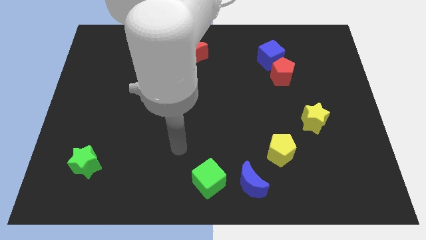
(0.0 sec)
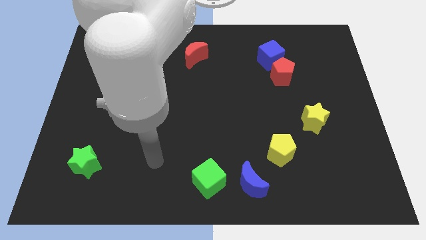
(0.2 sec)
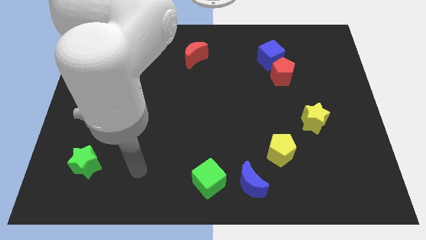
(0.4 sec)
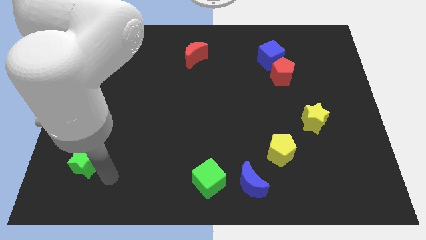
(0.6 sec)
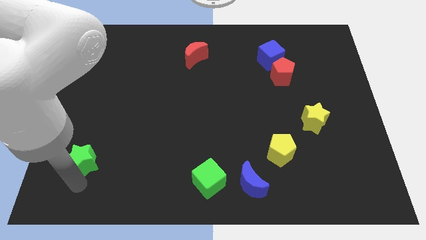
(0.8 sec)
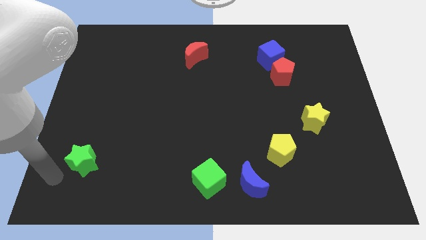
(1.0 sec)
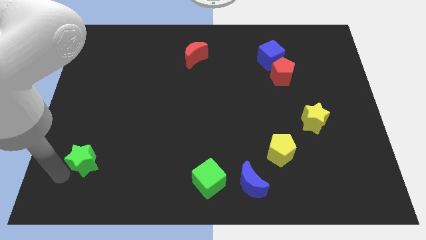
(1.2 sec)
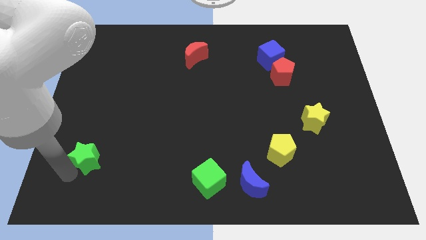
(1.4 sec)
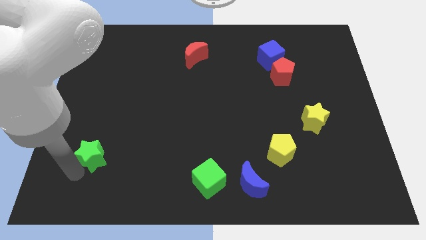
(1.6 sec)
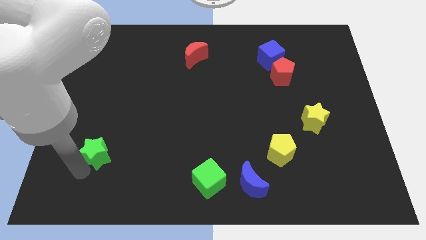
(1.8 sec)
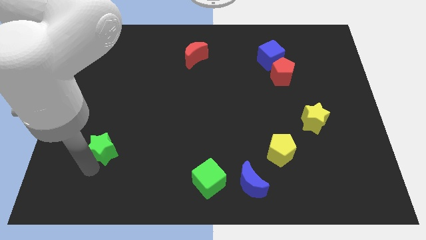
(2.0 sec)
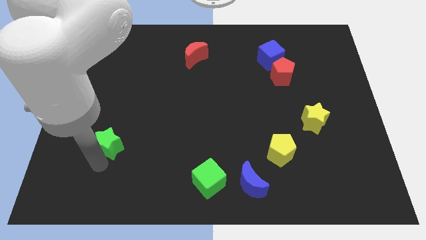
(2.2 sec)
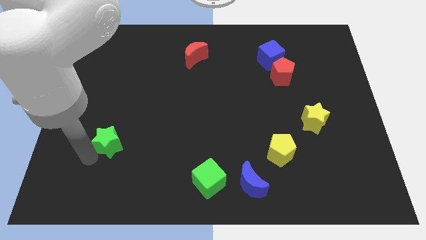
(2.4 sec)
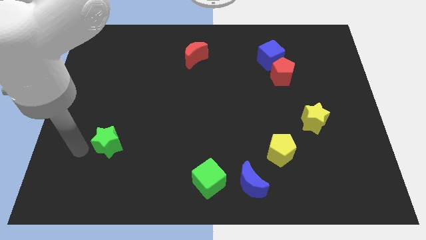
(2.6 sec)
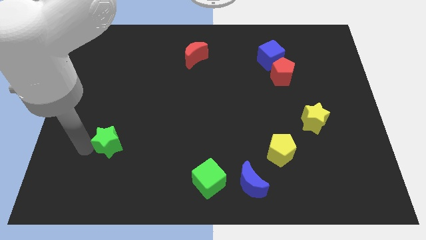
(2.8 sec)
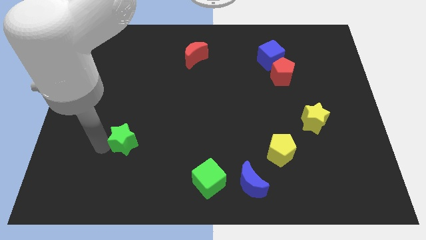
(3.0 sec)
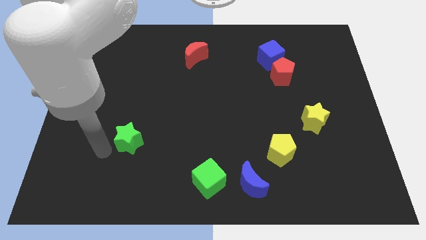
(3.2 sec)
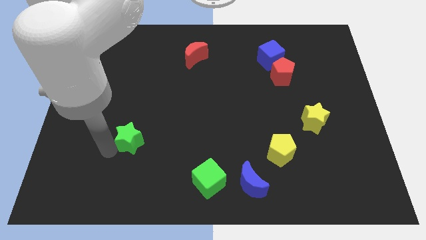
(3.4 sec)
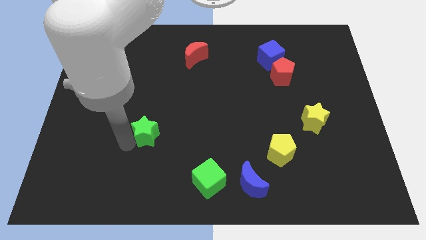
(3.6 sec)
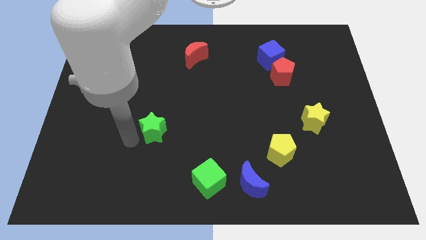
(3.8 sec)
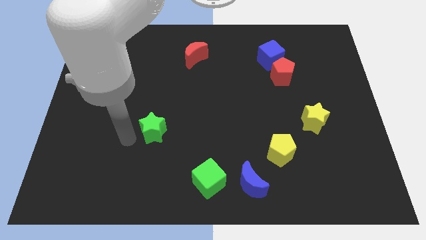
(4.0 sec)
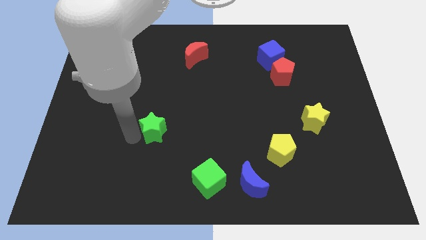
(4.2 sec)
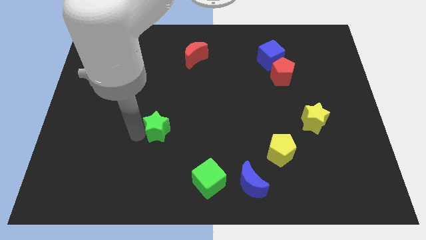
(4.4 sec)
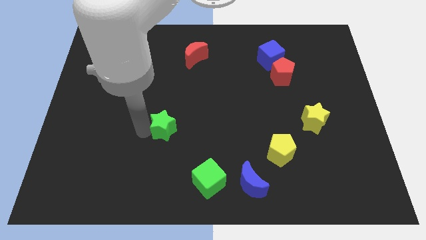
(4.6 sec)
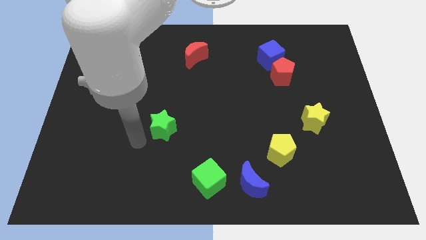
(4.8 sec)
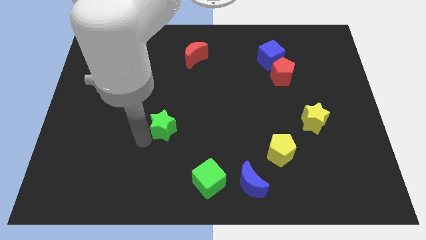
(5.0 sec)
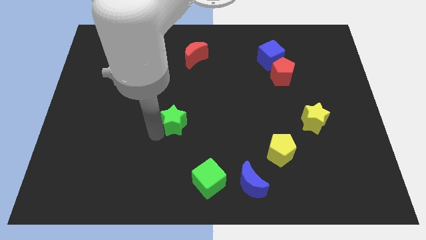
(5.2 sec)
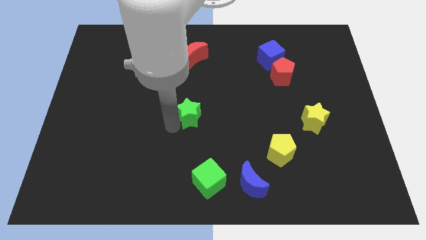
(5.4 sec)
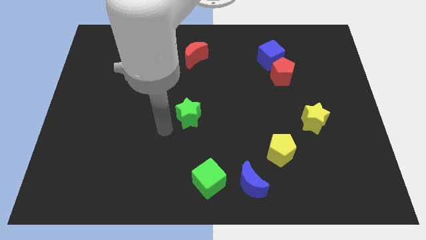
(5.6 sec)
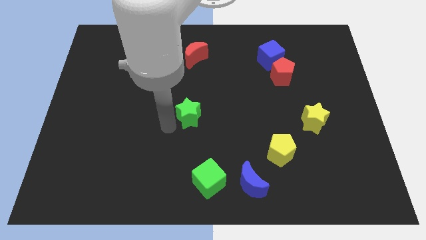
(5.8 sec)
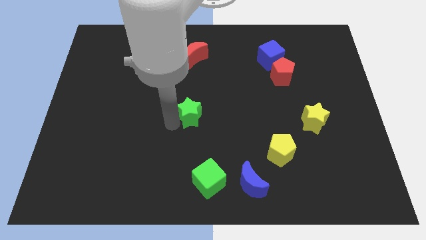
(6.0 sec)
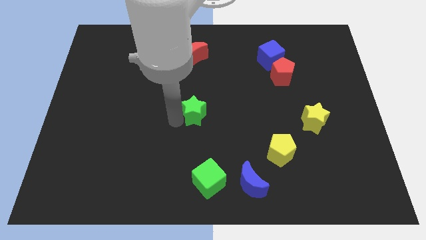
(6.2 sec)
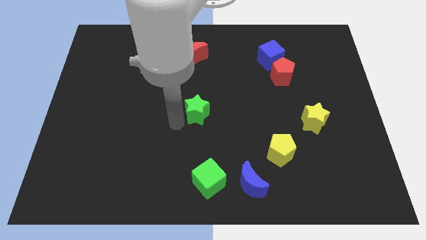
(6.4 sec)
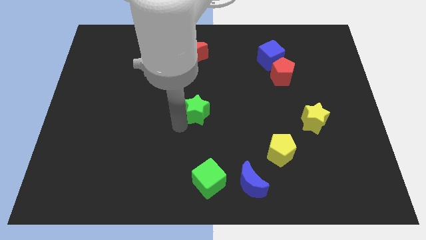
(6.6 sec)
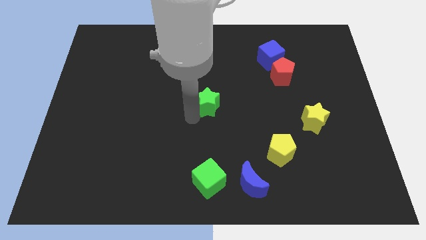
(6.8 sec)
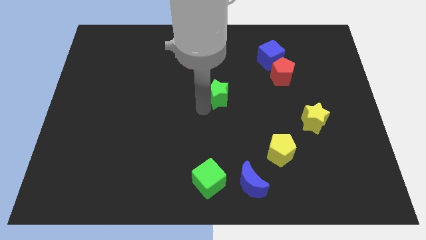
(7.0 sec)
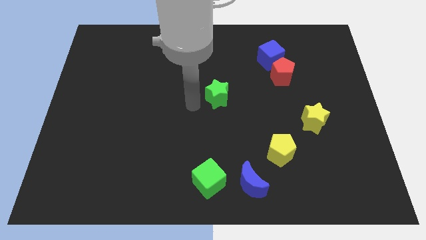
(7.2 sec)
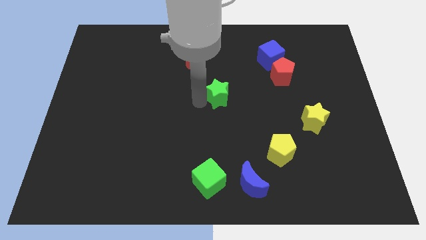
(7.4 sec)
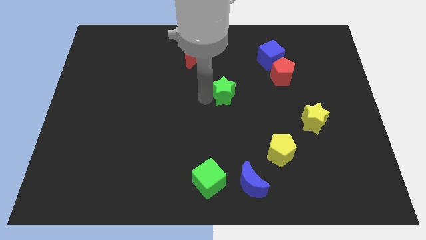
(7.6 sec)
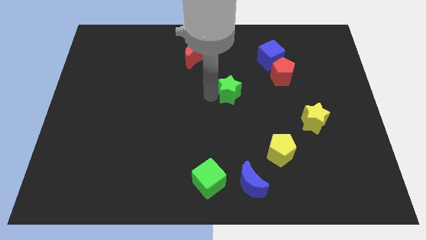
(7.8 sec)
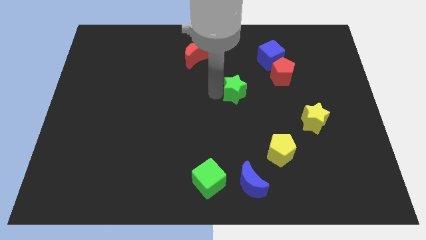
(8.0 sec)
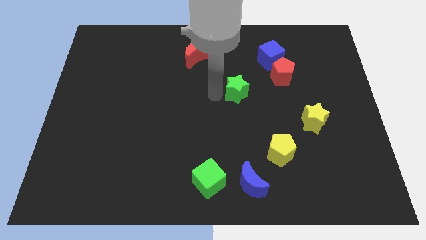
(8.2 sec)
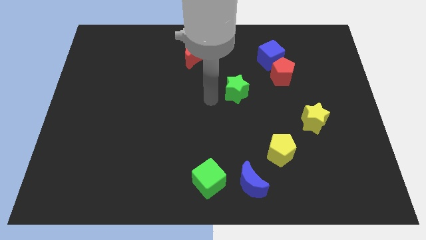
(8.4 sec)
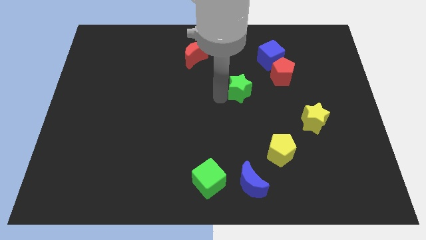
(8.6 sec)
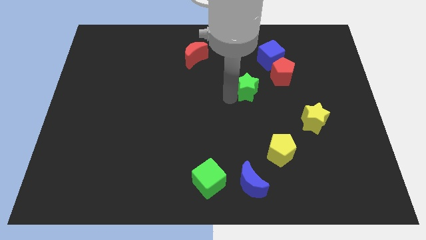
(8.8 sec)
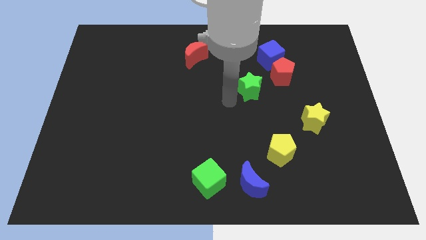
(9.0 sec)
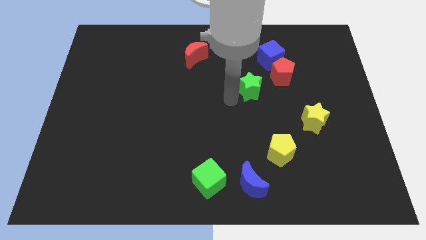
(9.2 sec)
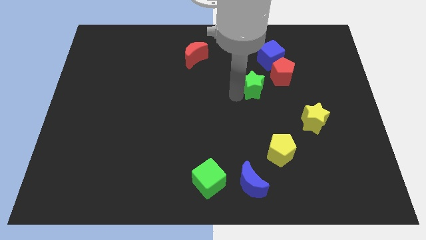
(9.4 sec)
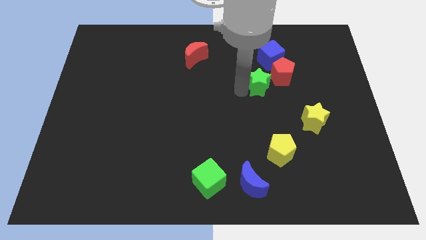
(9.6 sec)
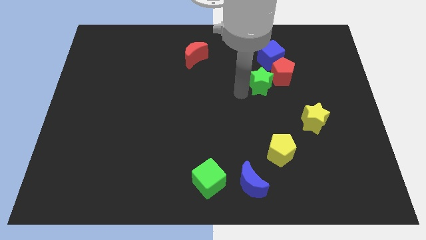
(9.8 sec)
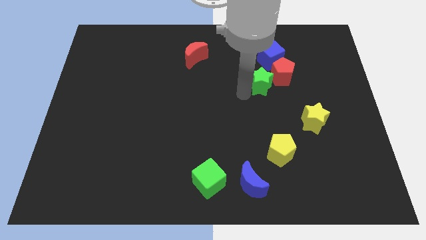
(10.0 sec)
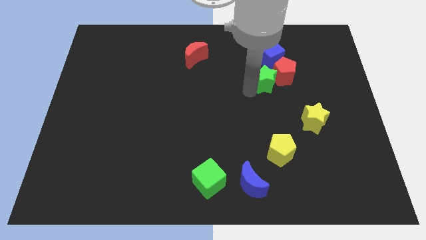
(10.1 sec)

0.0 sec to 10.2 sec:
move the green star next to the red pentagon

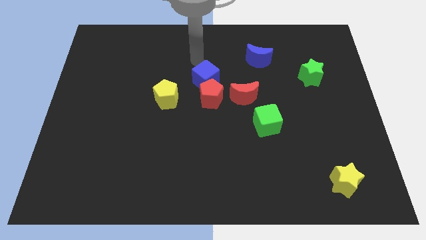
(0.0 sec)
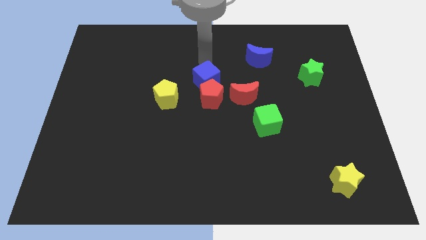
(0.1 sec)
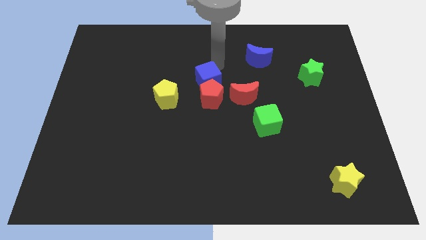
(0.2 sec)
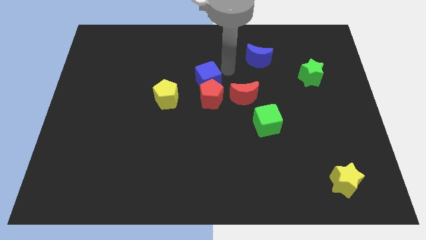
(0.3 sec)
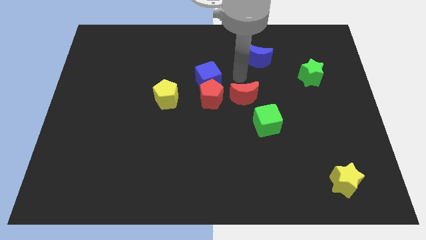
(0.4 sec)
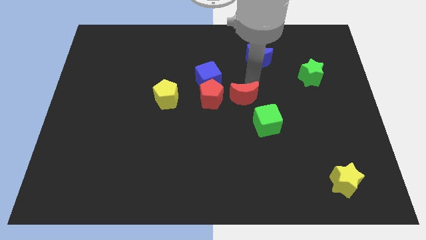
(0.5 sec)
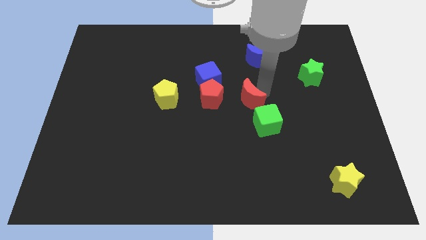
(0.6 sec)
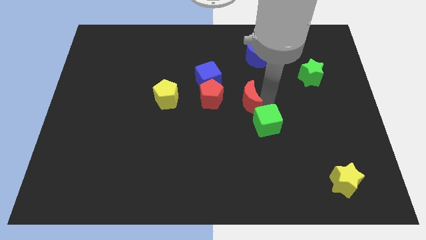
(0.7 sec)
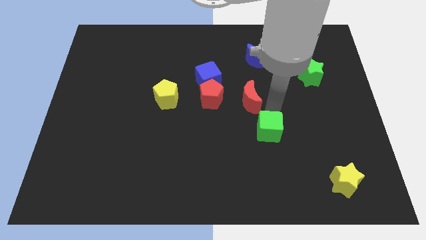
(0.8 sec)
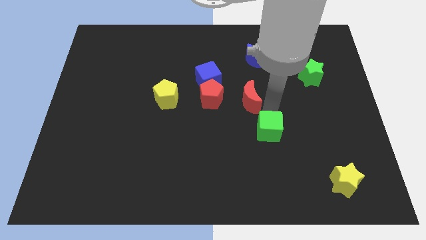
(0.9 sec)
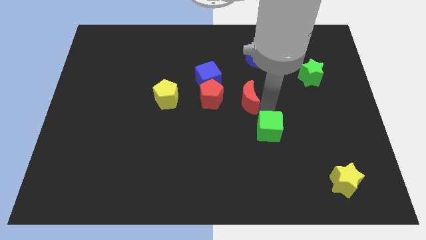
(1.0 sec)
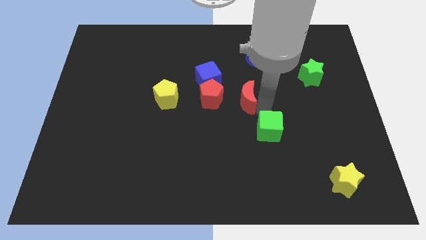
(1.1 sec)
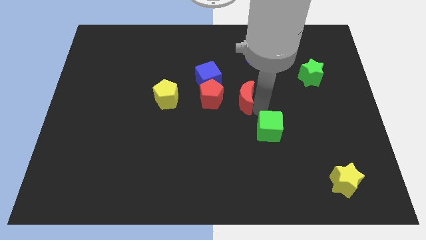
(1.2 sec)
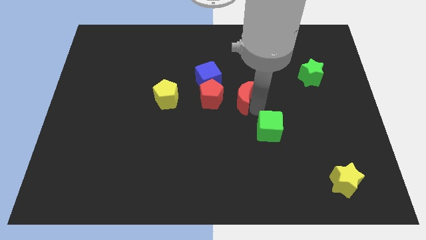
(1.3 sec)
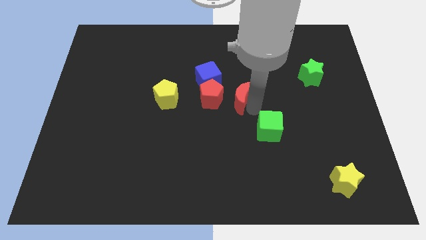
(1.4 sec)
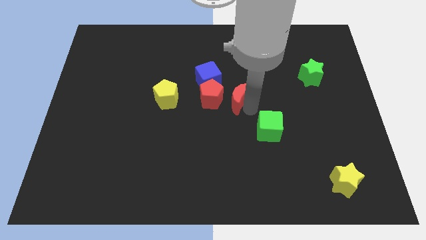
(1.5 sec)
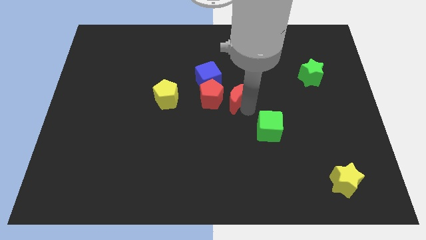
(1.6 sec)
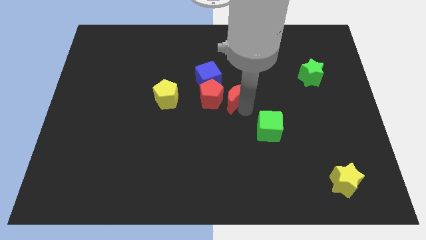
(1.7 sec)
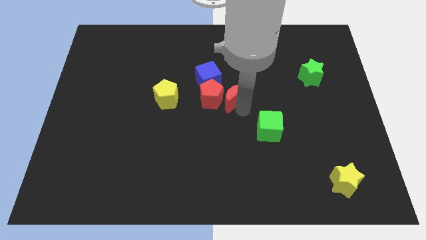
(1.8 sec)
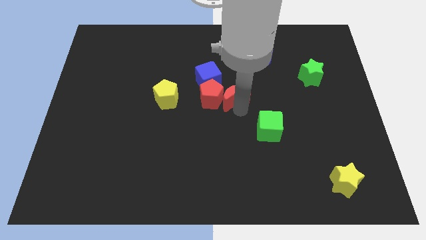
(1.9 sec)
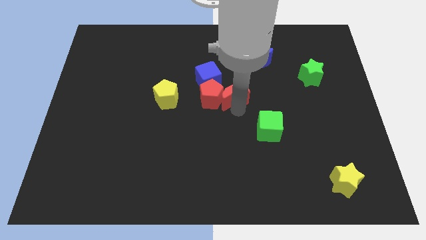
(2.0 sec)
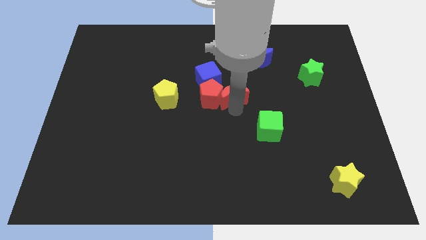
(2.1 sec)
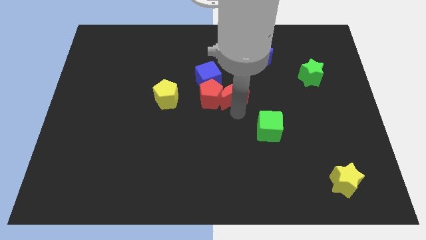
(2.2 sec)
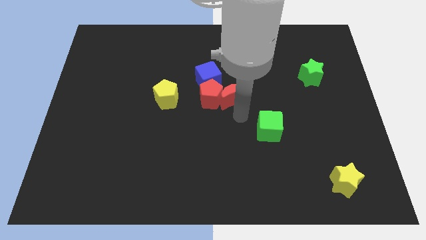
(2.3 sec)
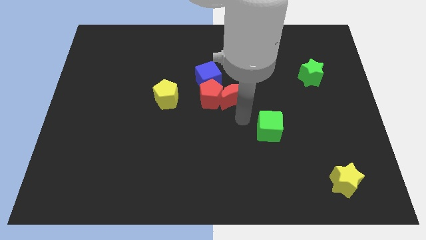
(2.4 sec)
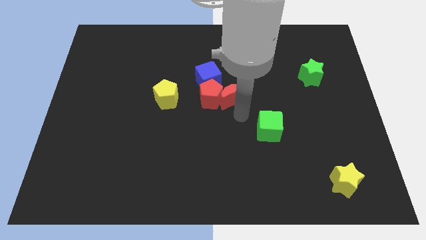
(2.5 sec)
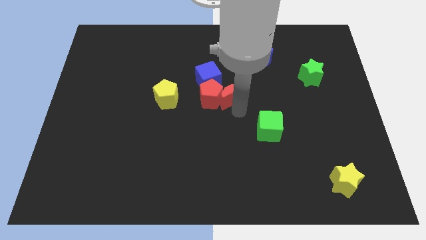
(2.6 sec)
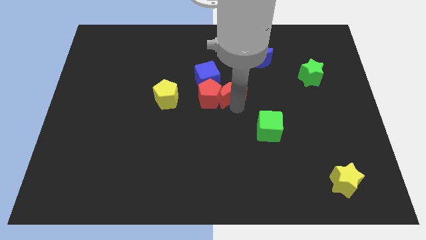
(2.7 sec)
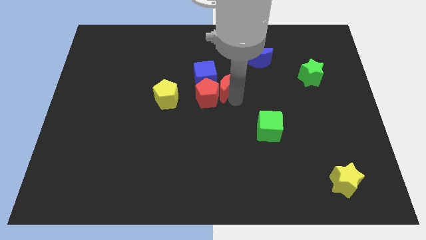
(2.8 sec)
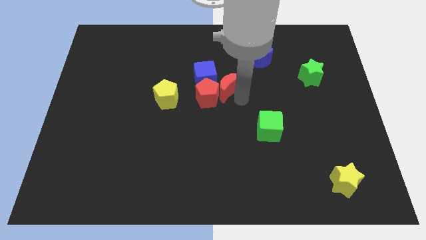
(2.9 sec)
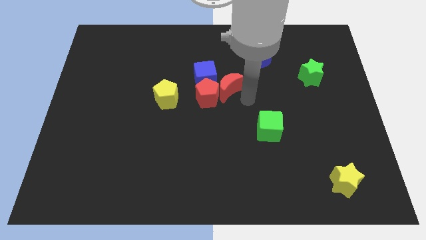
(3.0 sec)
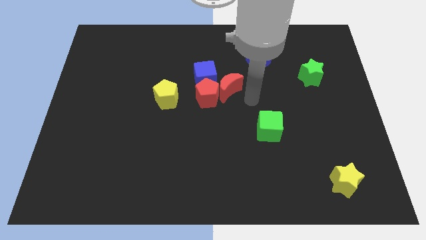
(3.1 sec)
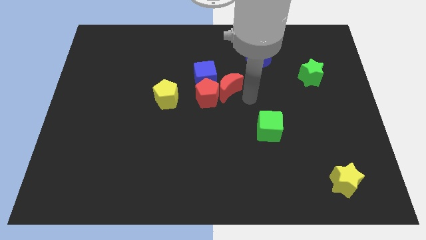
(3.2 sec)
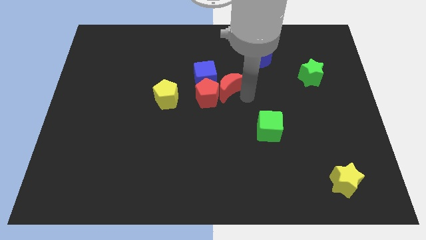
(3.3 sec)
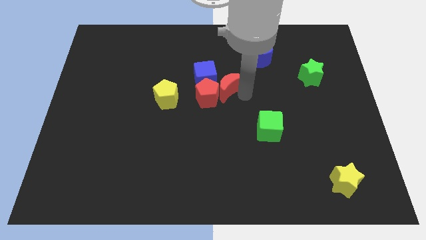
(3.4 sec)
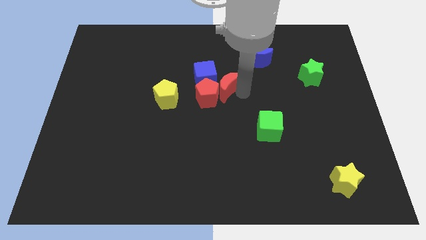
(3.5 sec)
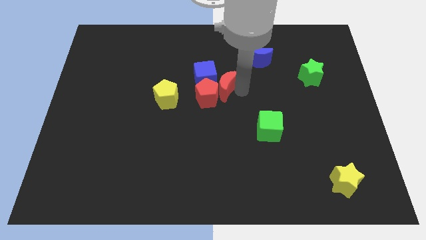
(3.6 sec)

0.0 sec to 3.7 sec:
move the red moon close to the blue cube
